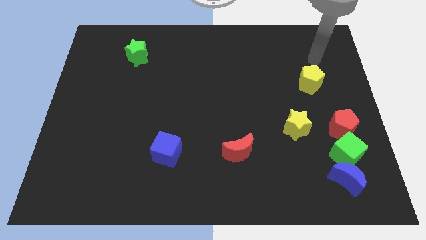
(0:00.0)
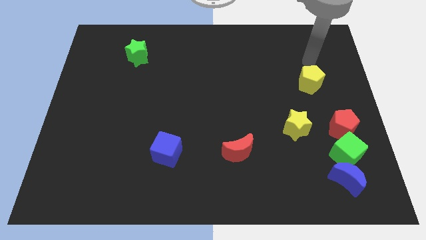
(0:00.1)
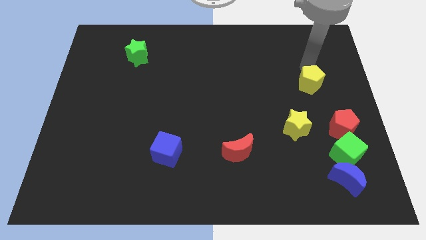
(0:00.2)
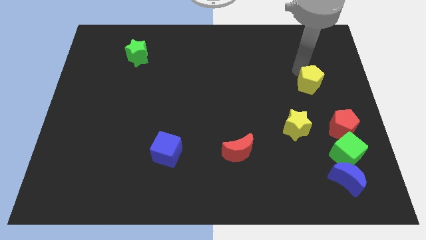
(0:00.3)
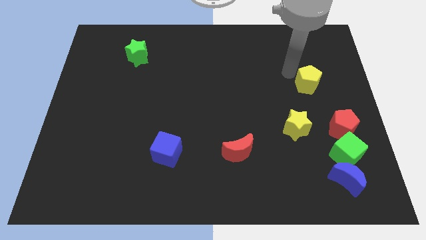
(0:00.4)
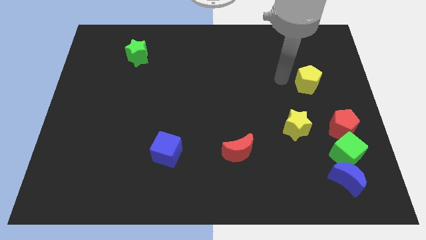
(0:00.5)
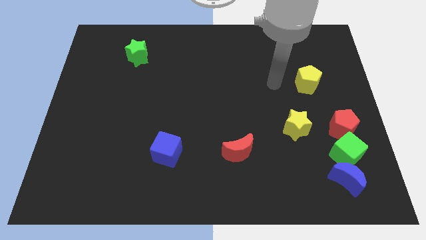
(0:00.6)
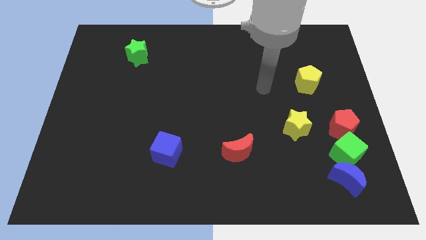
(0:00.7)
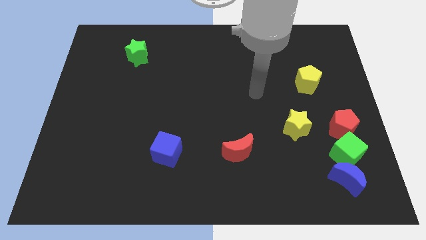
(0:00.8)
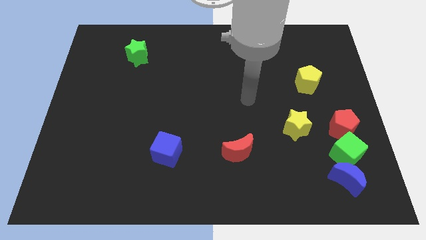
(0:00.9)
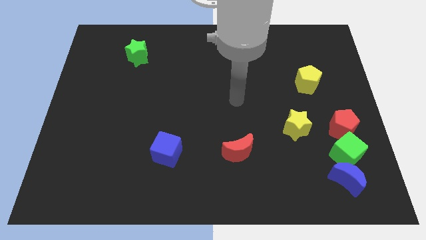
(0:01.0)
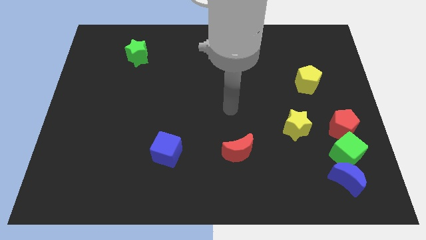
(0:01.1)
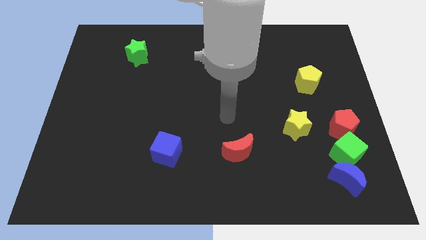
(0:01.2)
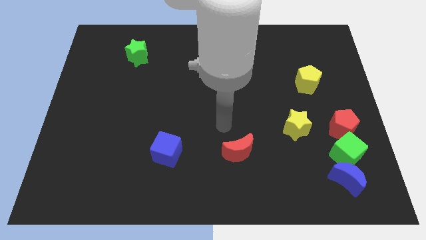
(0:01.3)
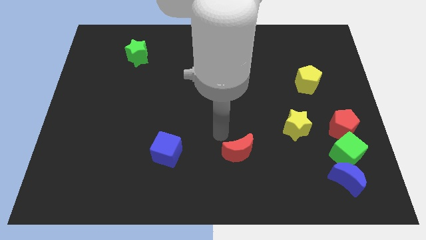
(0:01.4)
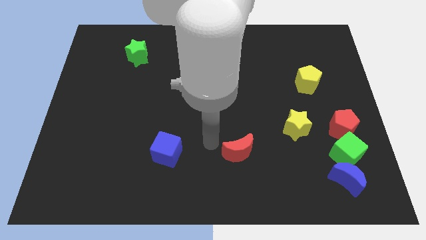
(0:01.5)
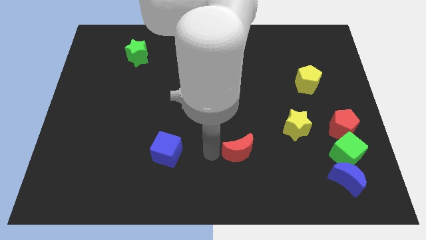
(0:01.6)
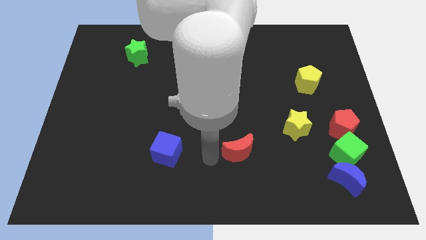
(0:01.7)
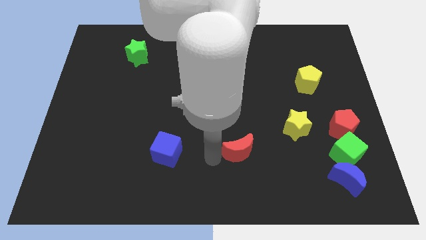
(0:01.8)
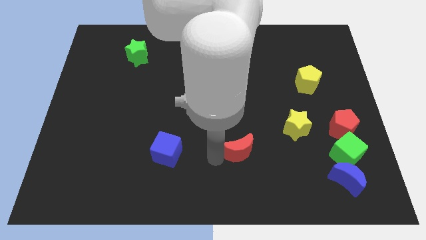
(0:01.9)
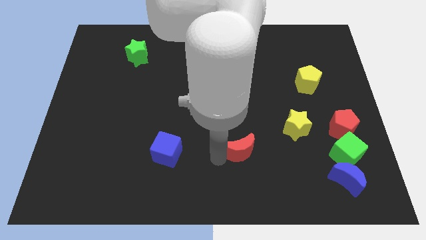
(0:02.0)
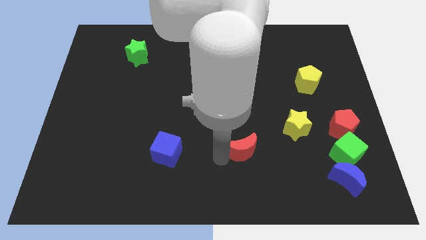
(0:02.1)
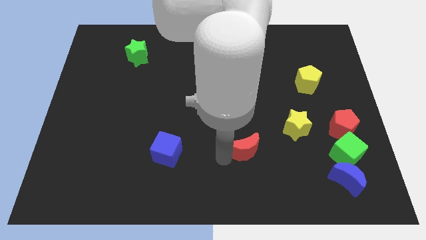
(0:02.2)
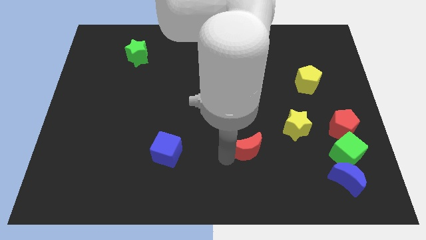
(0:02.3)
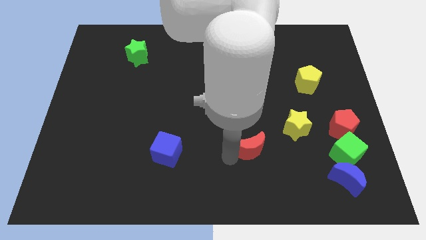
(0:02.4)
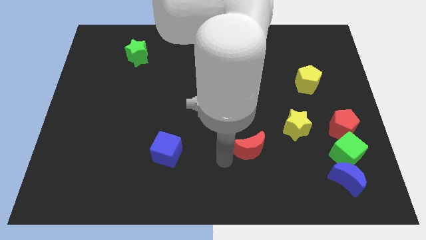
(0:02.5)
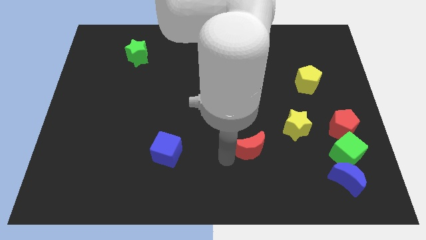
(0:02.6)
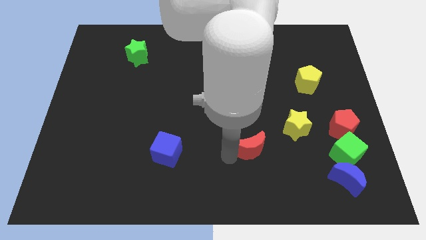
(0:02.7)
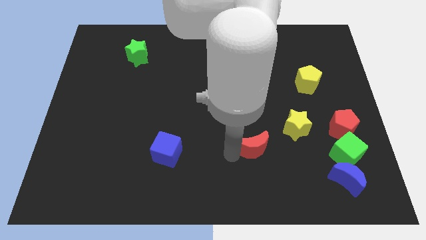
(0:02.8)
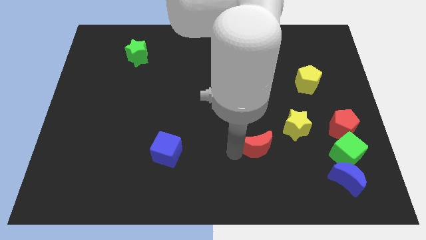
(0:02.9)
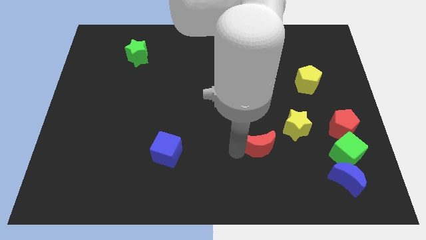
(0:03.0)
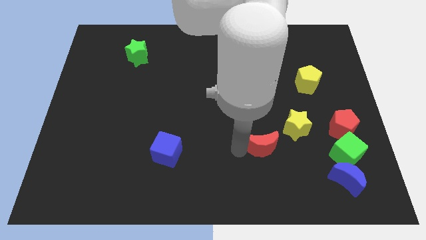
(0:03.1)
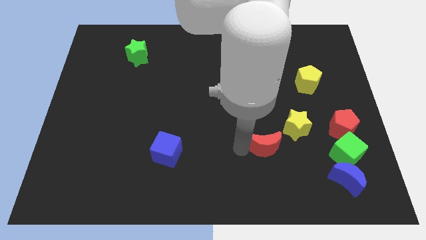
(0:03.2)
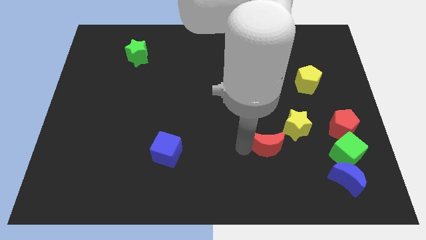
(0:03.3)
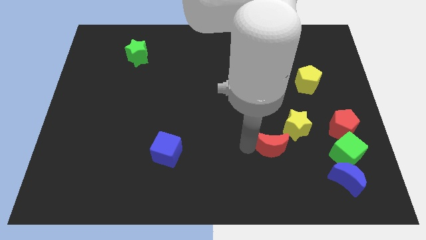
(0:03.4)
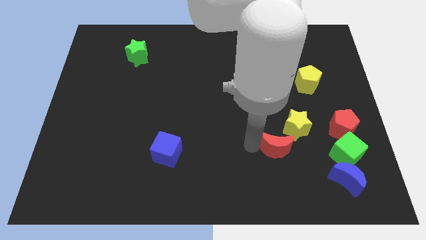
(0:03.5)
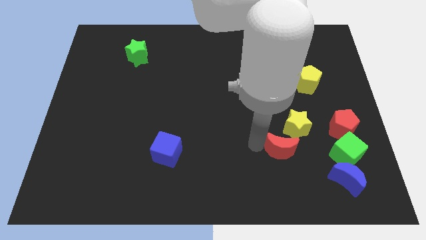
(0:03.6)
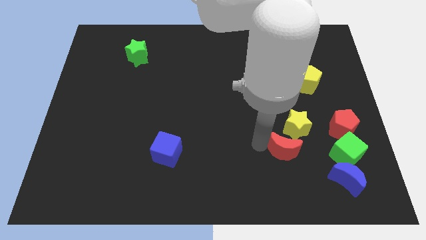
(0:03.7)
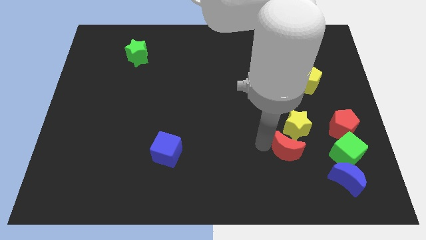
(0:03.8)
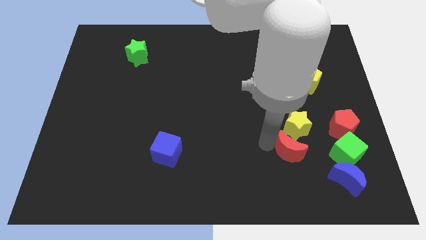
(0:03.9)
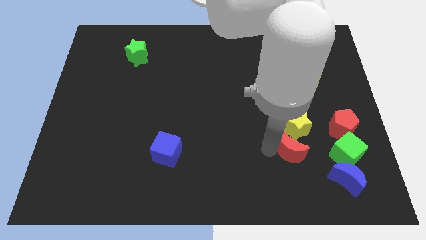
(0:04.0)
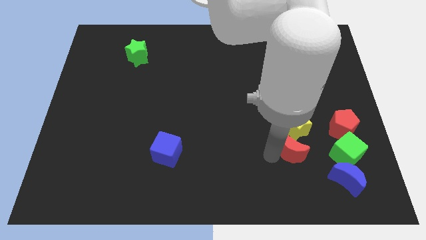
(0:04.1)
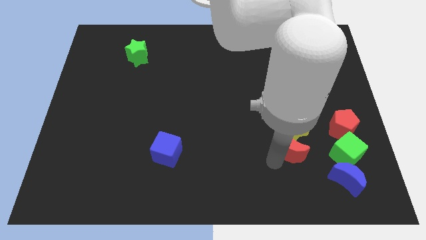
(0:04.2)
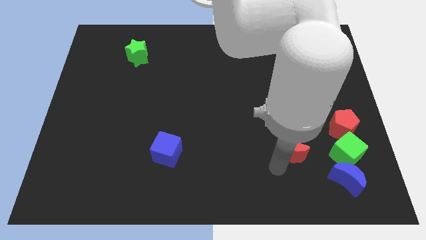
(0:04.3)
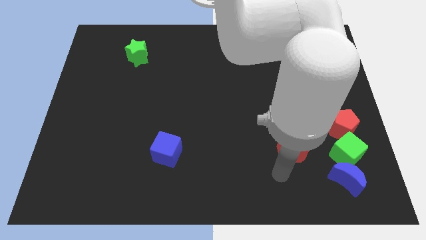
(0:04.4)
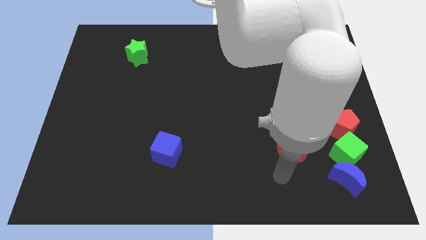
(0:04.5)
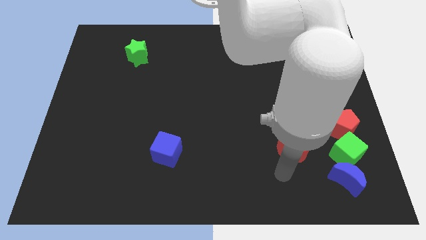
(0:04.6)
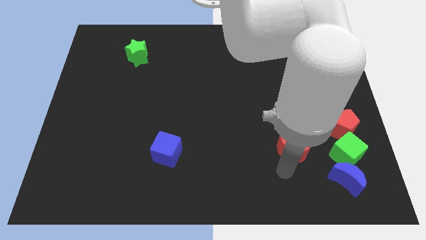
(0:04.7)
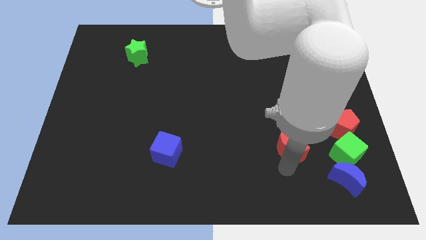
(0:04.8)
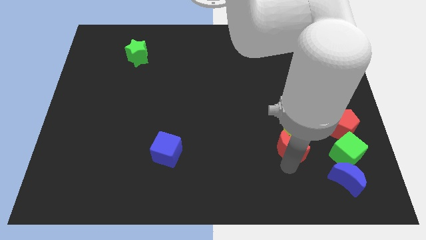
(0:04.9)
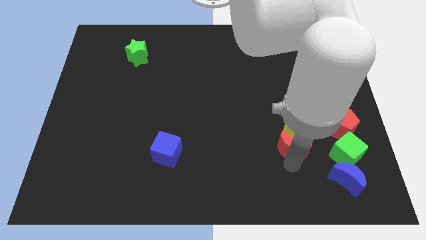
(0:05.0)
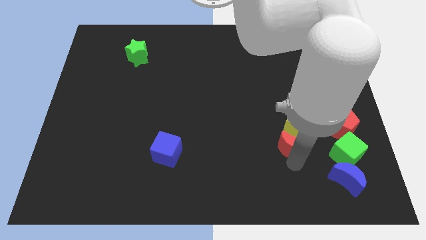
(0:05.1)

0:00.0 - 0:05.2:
put the red moon next to the yellow star

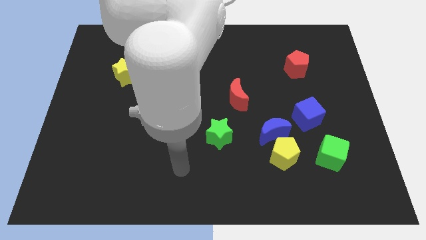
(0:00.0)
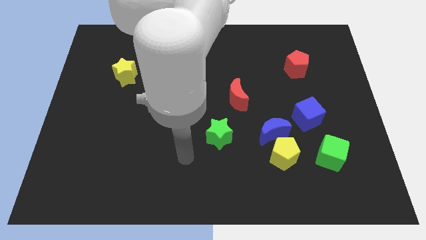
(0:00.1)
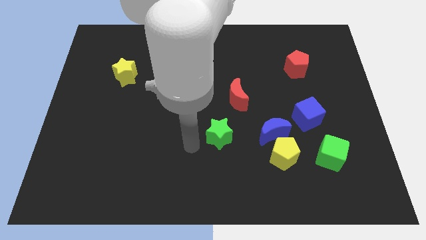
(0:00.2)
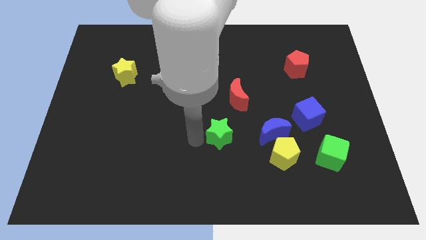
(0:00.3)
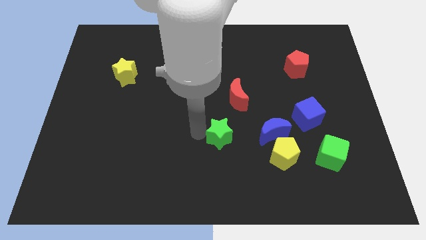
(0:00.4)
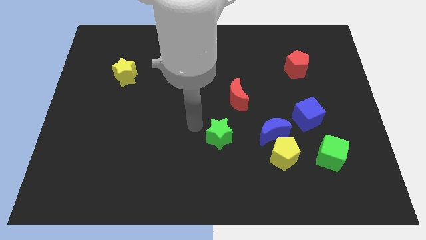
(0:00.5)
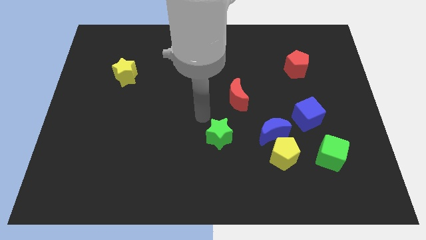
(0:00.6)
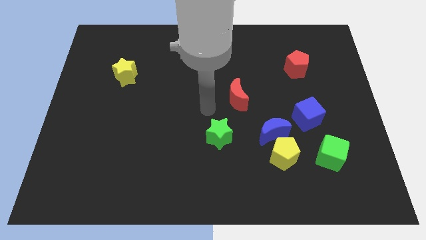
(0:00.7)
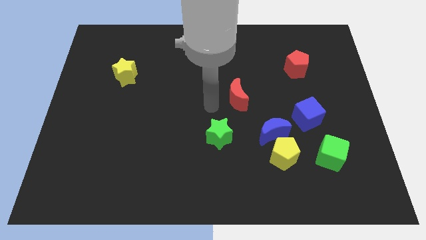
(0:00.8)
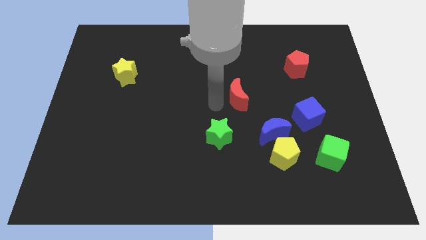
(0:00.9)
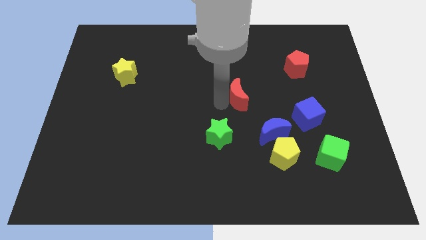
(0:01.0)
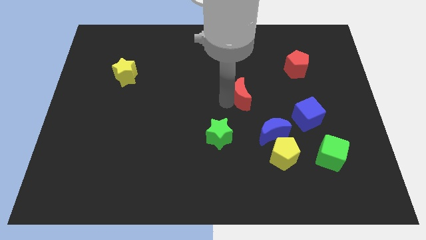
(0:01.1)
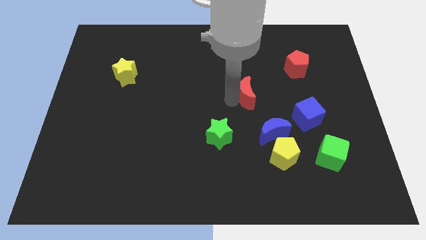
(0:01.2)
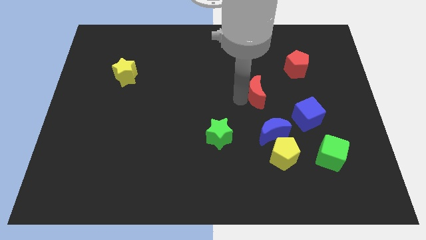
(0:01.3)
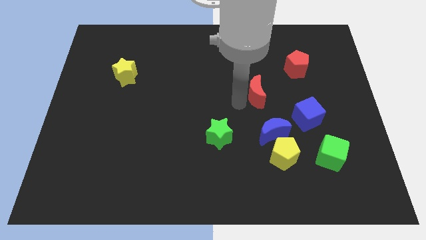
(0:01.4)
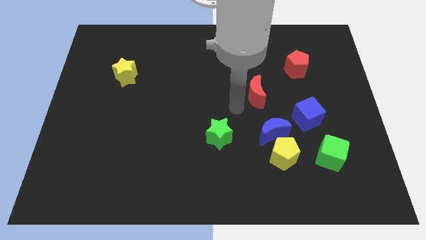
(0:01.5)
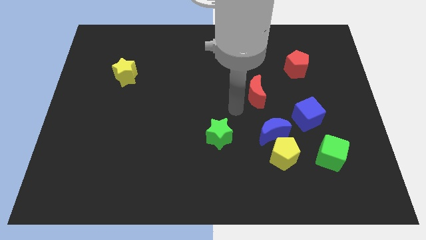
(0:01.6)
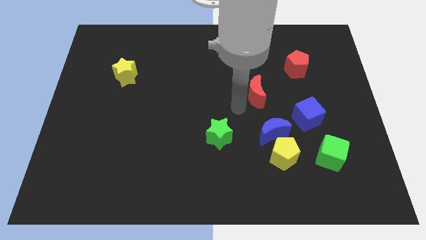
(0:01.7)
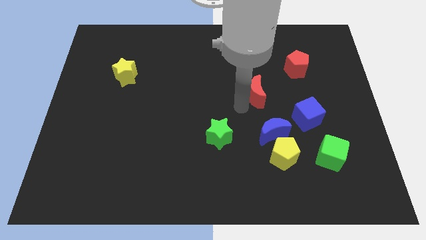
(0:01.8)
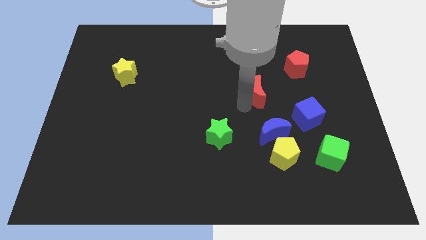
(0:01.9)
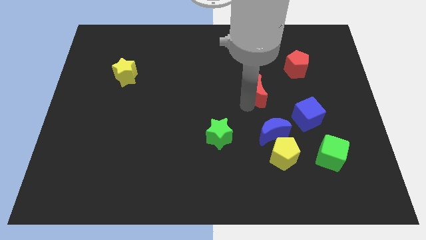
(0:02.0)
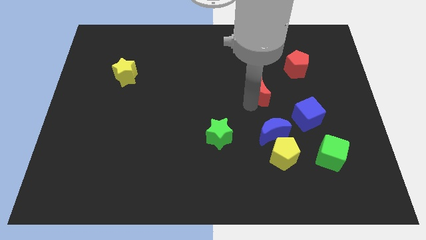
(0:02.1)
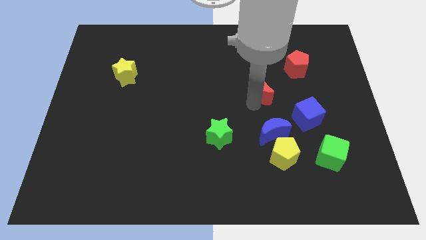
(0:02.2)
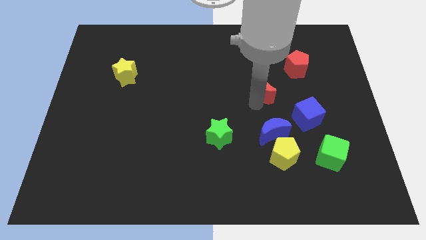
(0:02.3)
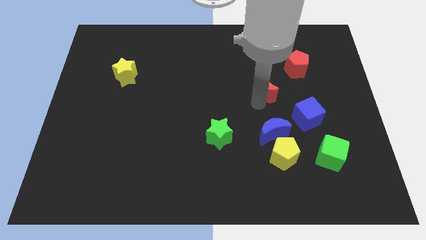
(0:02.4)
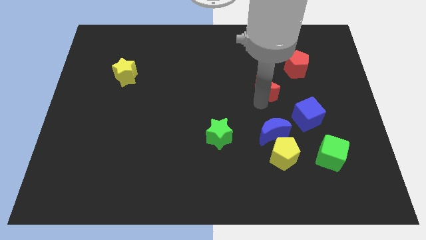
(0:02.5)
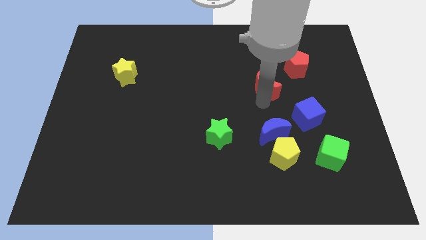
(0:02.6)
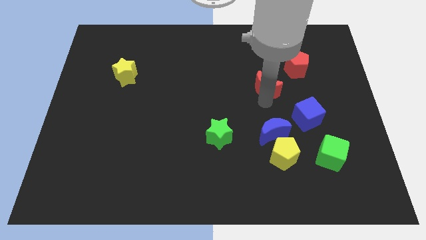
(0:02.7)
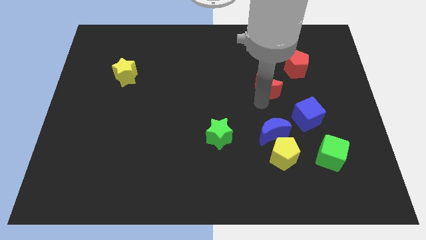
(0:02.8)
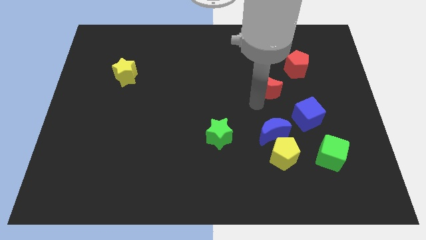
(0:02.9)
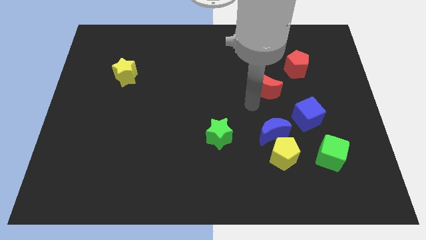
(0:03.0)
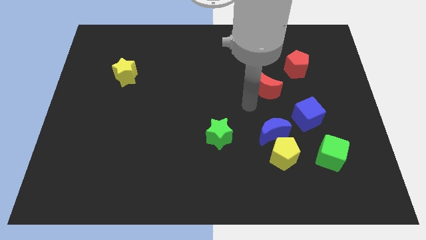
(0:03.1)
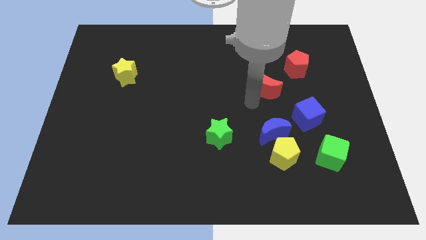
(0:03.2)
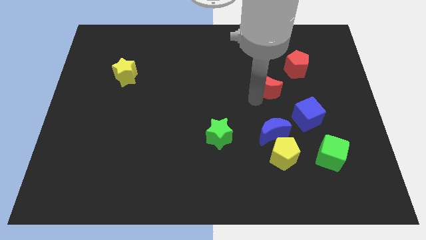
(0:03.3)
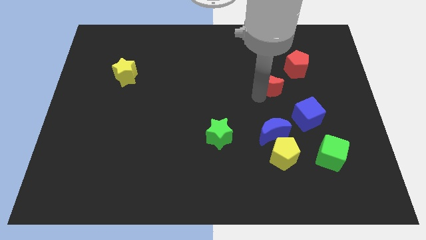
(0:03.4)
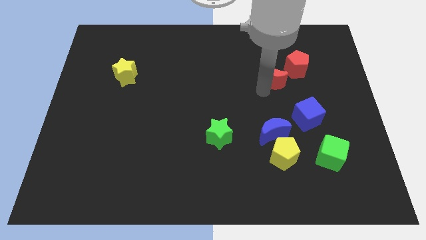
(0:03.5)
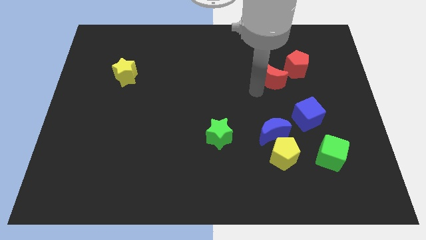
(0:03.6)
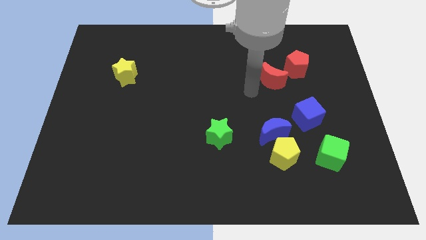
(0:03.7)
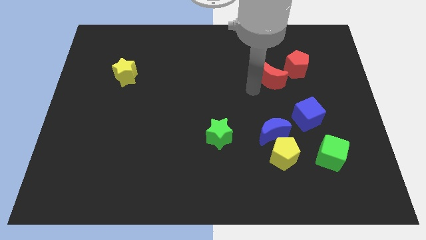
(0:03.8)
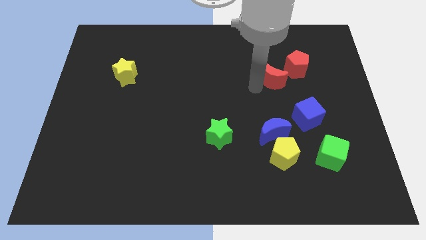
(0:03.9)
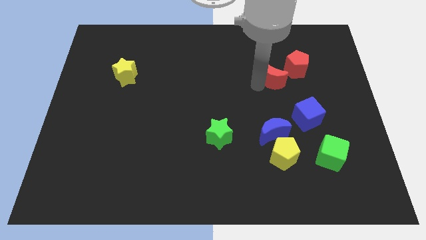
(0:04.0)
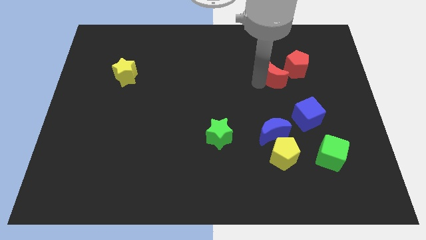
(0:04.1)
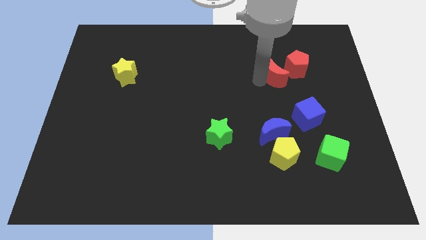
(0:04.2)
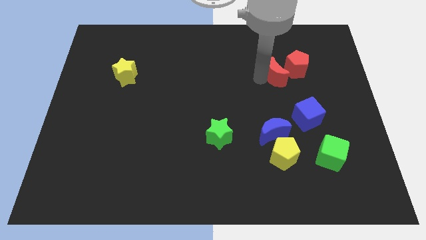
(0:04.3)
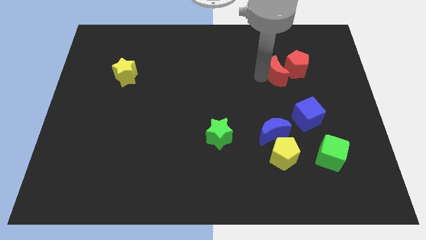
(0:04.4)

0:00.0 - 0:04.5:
move the red moon towards the red pentagon
